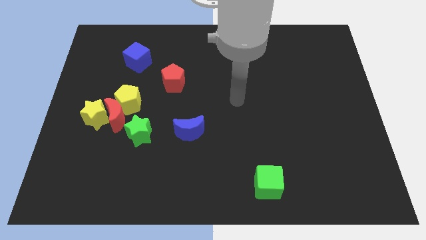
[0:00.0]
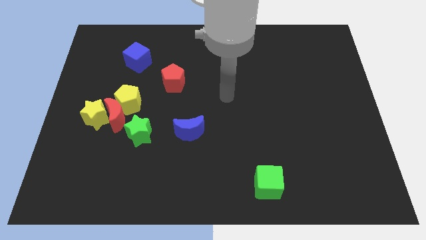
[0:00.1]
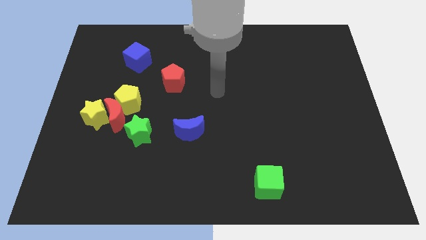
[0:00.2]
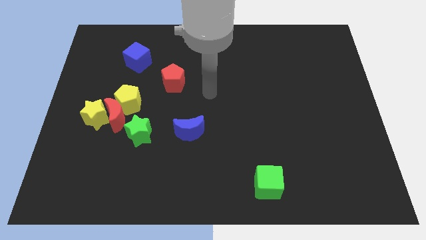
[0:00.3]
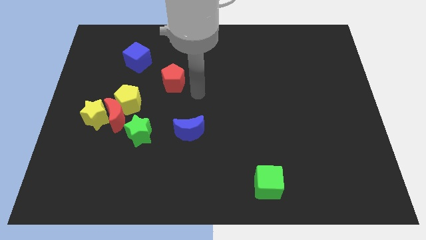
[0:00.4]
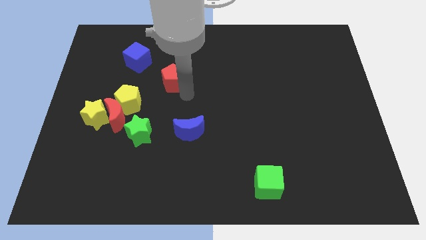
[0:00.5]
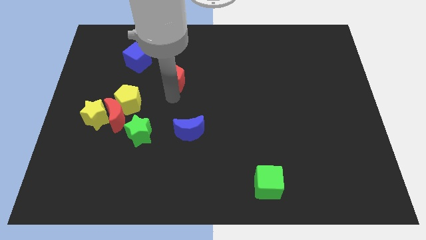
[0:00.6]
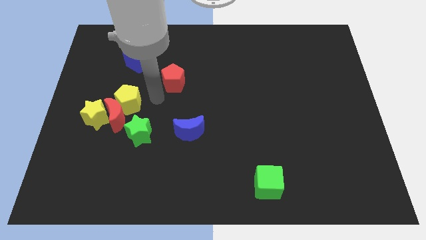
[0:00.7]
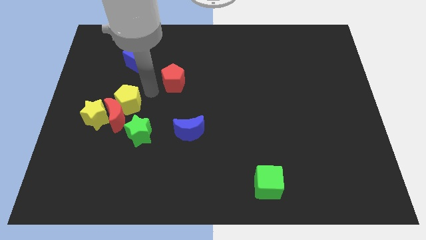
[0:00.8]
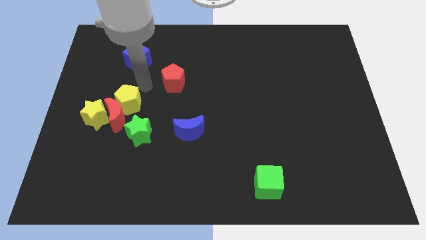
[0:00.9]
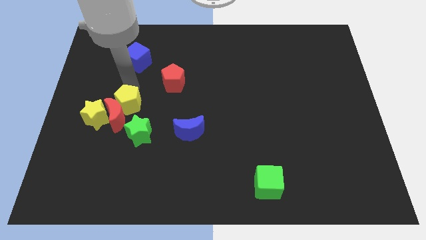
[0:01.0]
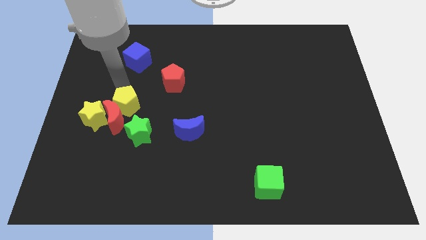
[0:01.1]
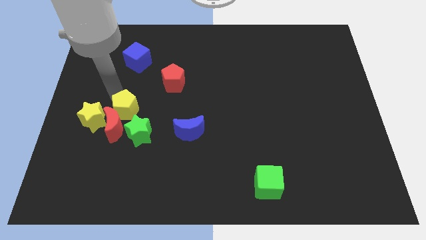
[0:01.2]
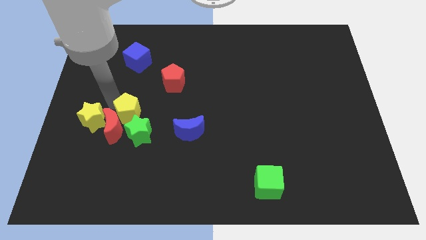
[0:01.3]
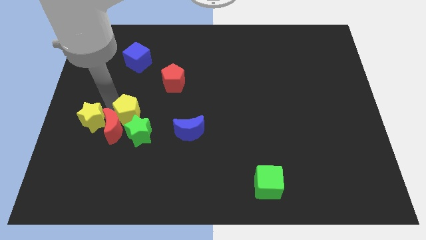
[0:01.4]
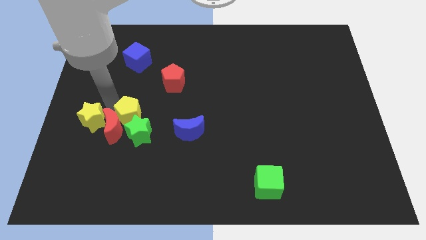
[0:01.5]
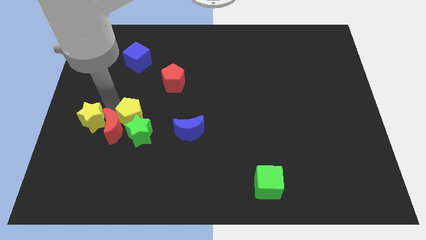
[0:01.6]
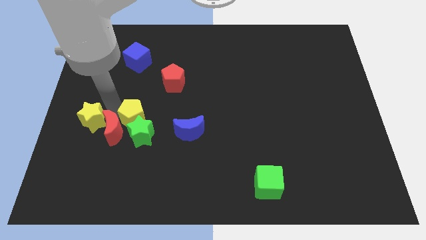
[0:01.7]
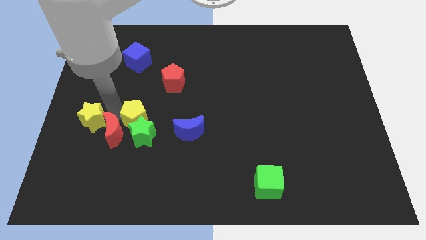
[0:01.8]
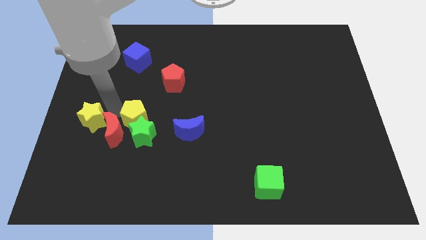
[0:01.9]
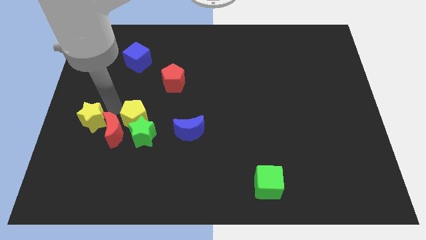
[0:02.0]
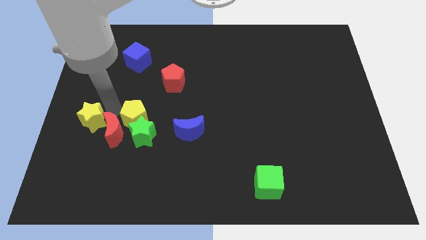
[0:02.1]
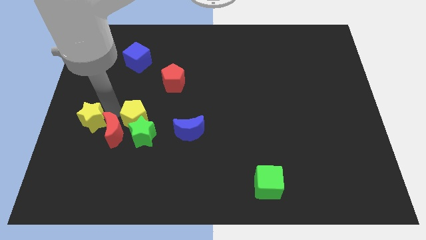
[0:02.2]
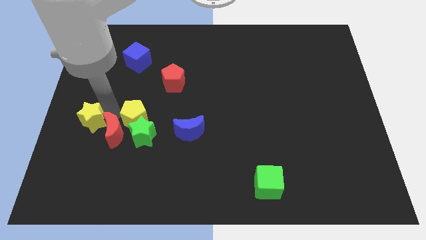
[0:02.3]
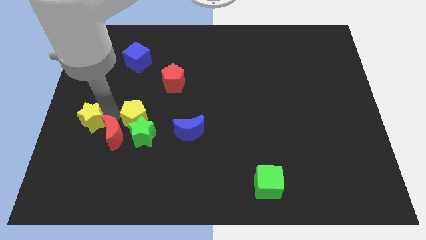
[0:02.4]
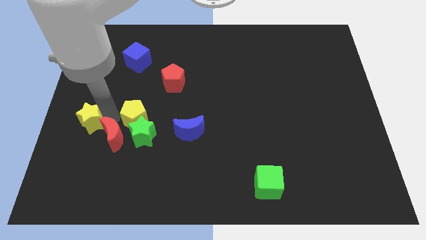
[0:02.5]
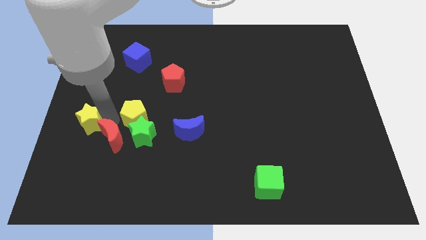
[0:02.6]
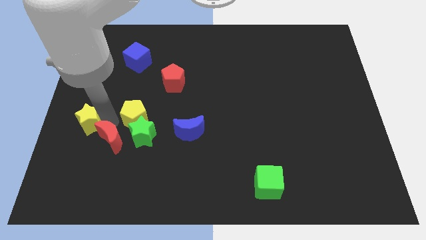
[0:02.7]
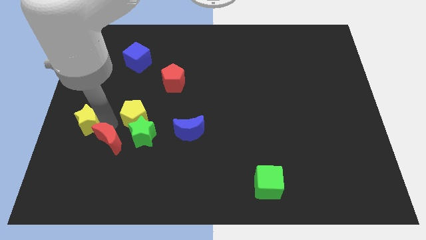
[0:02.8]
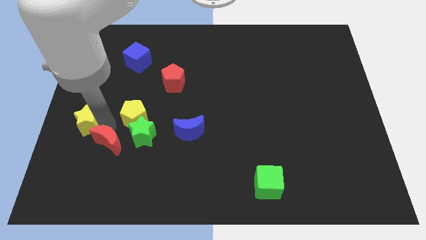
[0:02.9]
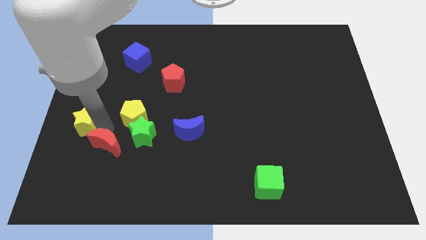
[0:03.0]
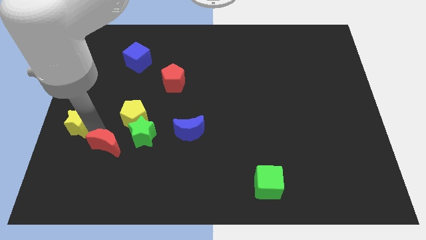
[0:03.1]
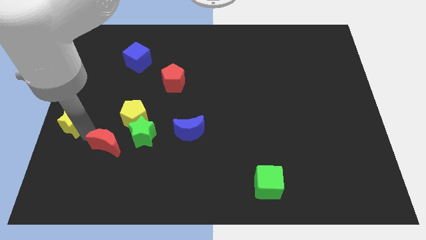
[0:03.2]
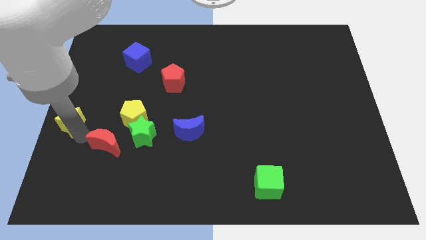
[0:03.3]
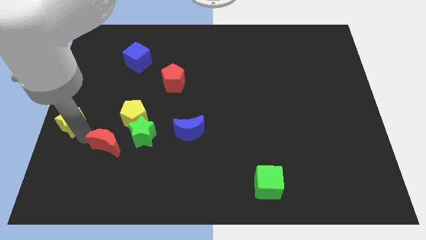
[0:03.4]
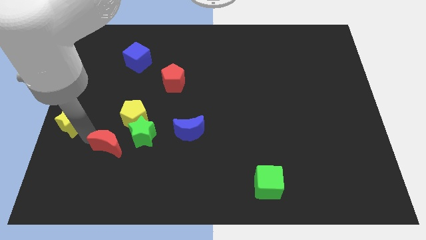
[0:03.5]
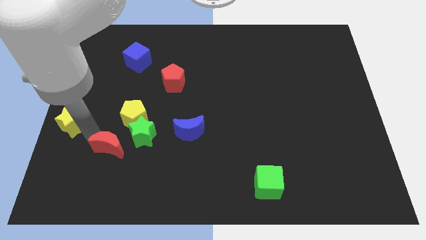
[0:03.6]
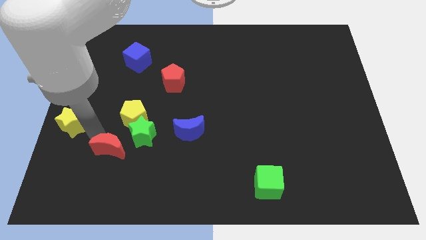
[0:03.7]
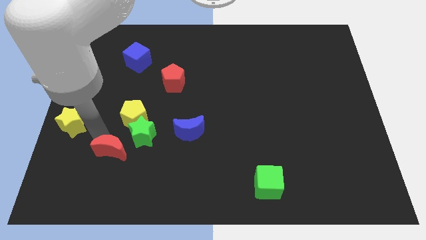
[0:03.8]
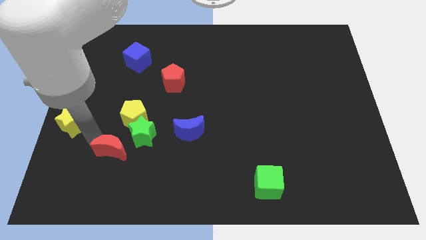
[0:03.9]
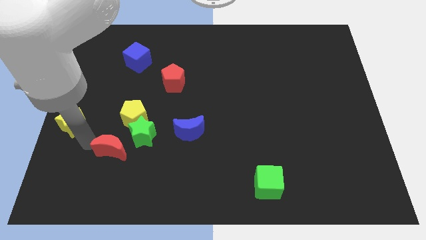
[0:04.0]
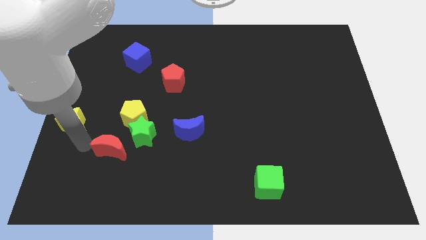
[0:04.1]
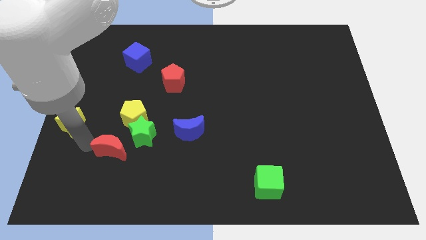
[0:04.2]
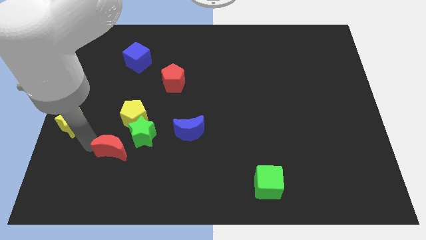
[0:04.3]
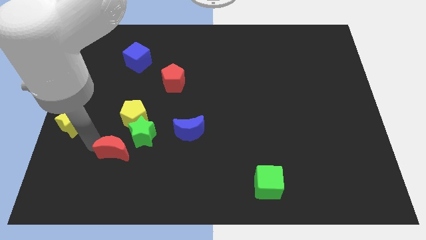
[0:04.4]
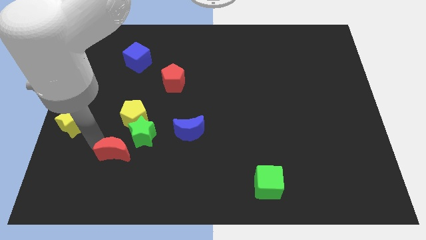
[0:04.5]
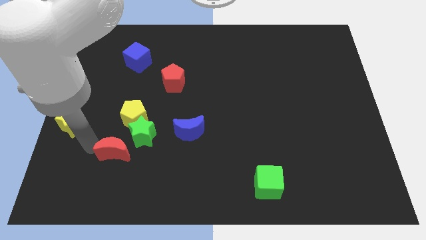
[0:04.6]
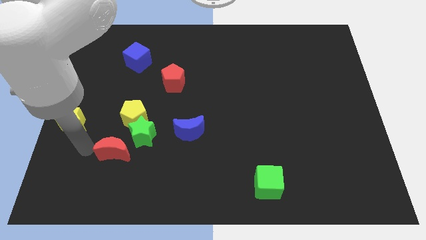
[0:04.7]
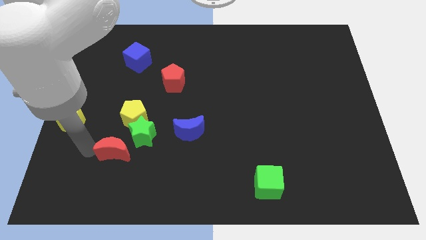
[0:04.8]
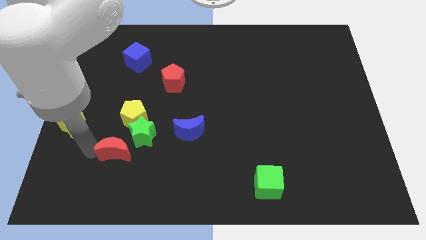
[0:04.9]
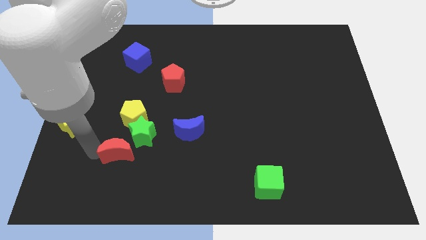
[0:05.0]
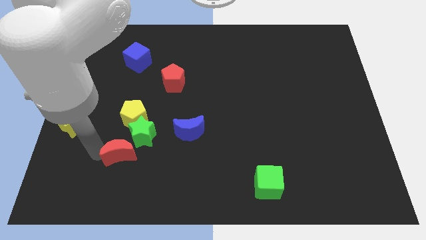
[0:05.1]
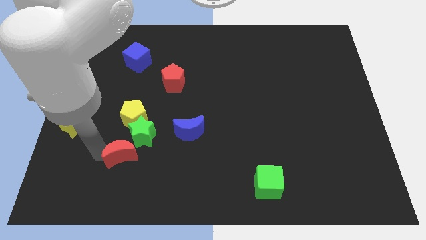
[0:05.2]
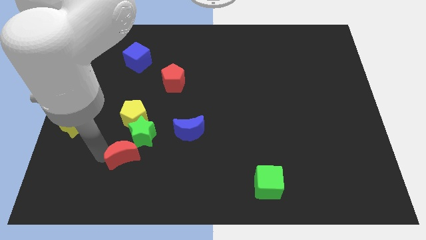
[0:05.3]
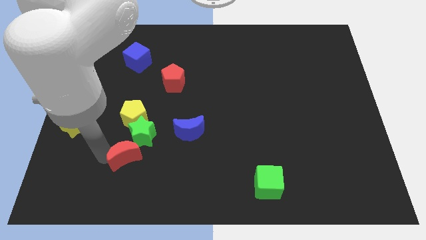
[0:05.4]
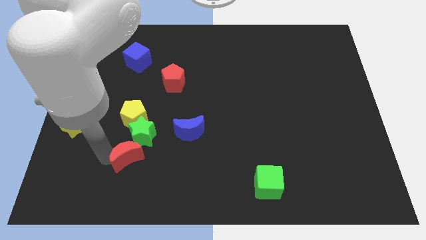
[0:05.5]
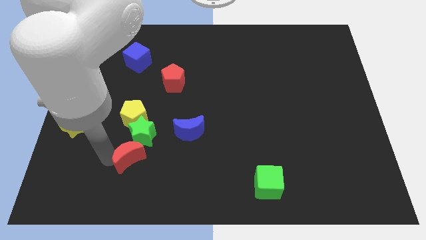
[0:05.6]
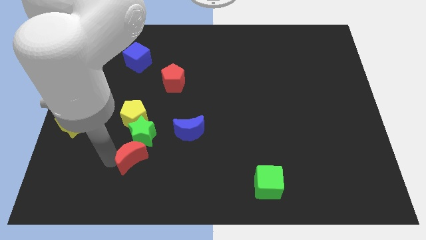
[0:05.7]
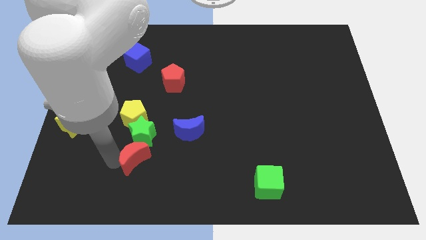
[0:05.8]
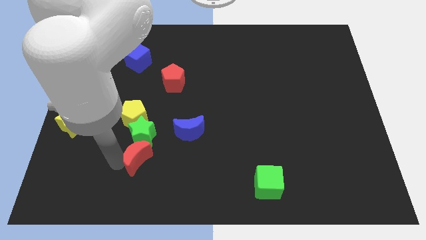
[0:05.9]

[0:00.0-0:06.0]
move the red moon diagonally down and to the right of the green star

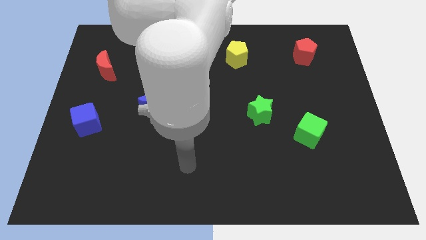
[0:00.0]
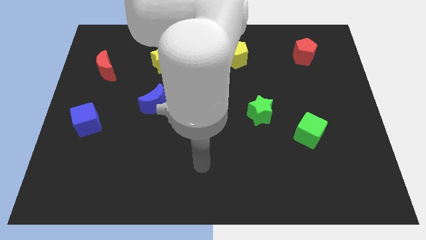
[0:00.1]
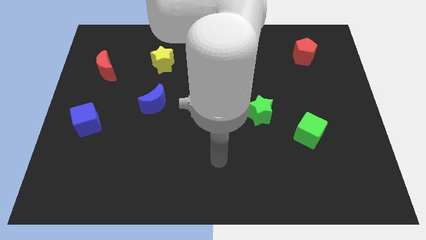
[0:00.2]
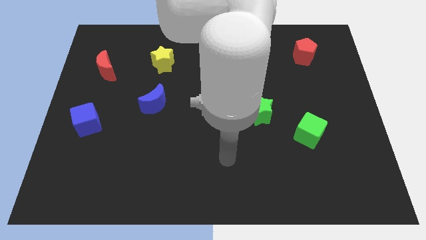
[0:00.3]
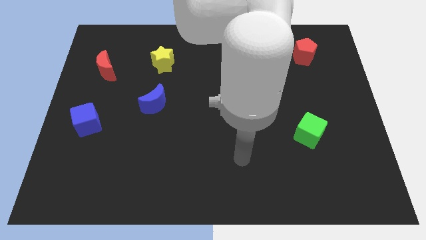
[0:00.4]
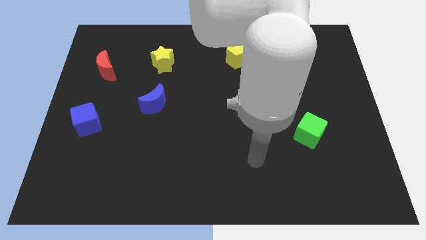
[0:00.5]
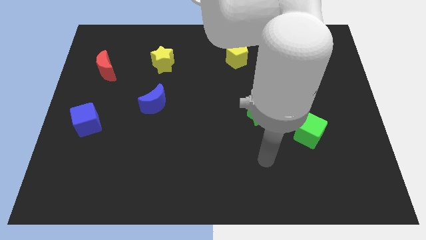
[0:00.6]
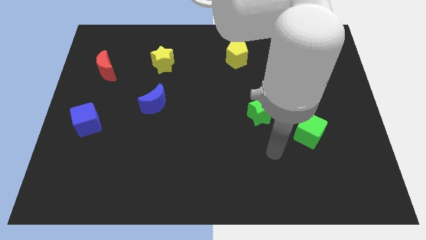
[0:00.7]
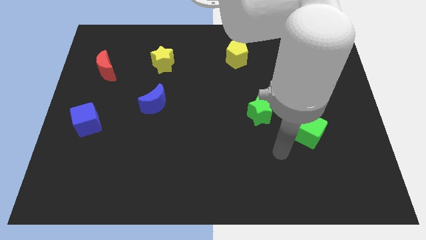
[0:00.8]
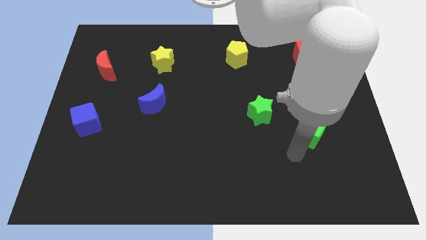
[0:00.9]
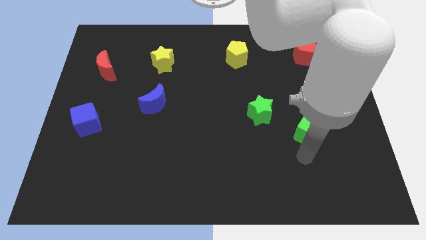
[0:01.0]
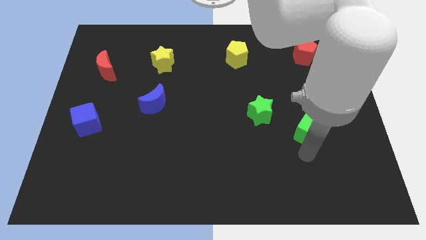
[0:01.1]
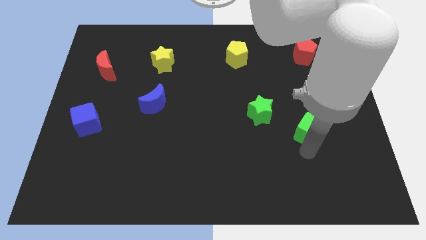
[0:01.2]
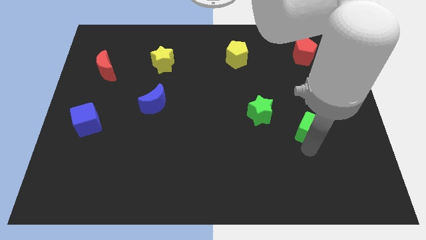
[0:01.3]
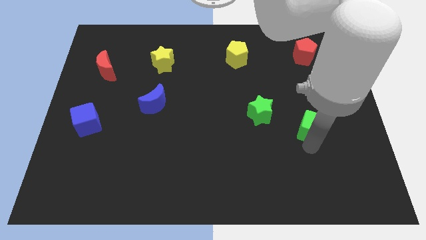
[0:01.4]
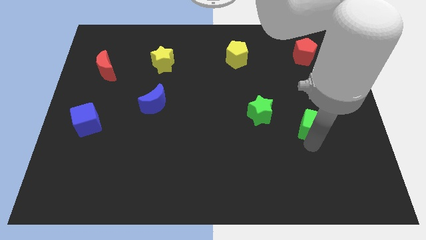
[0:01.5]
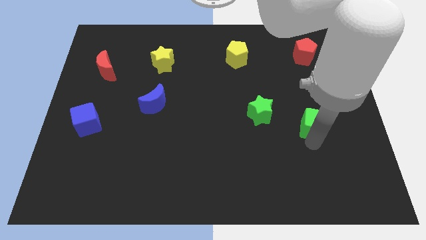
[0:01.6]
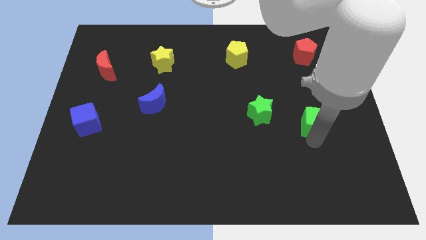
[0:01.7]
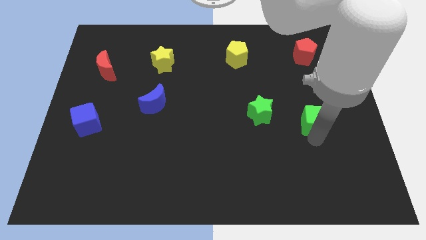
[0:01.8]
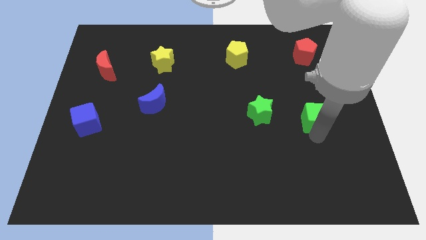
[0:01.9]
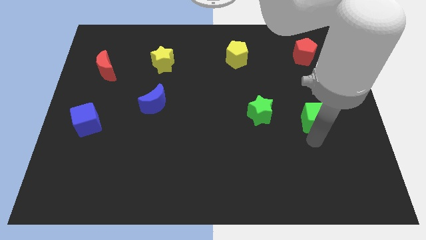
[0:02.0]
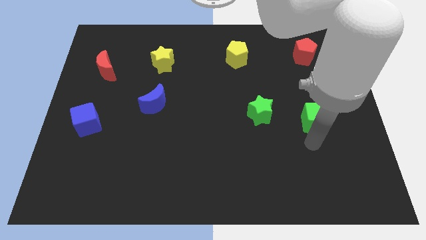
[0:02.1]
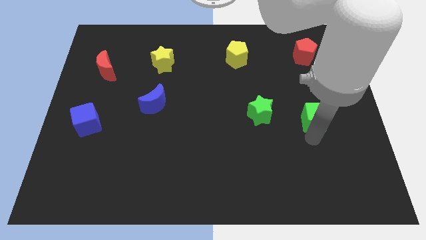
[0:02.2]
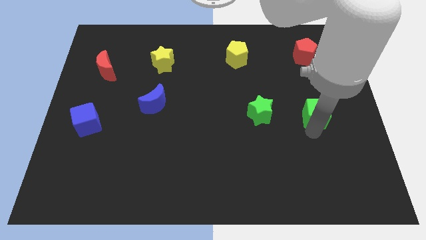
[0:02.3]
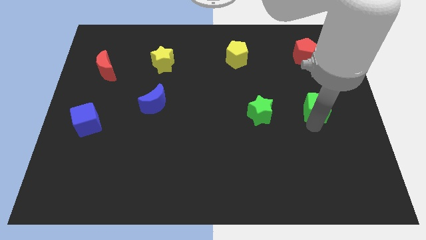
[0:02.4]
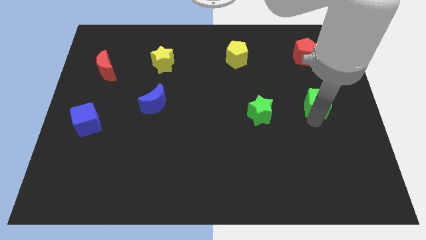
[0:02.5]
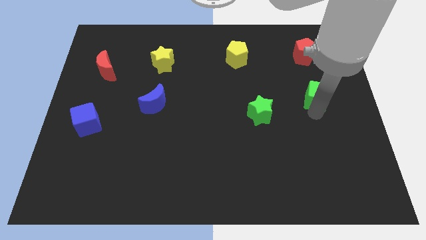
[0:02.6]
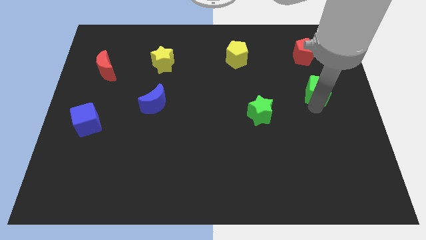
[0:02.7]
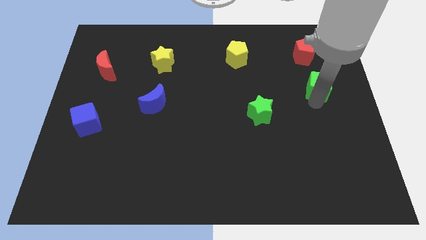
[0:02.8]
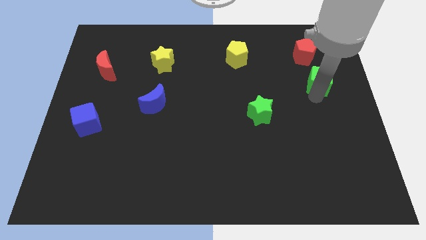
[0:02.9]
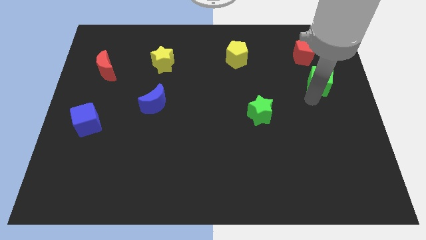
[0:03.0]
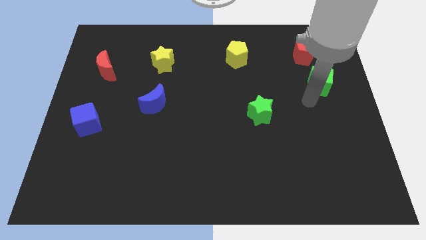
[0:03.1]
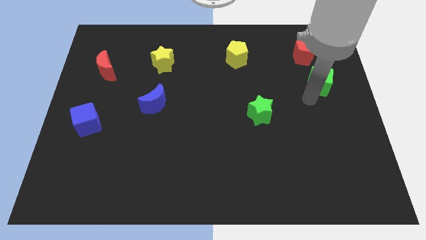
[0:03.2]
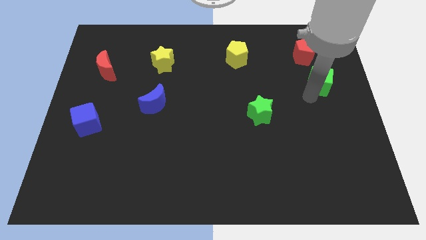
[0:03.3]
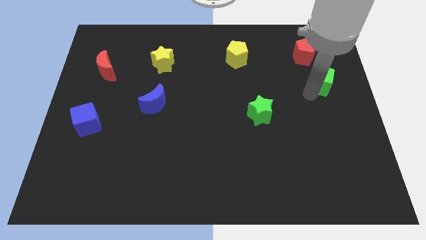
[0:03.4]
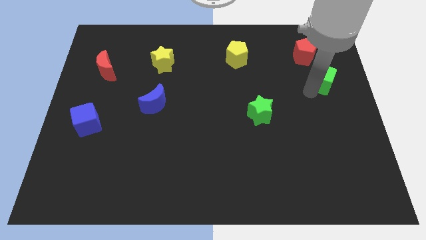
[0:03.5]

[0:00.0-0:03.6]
slide the green cube to the bottom right side of the red pentagon
